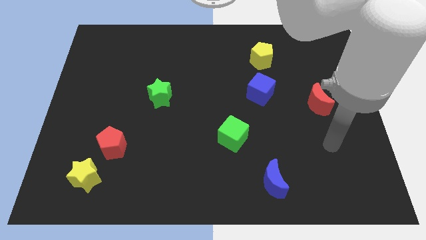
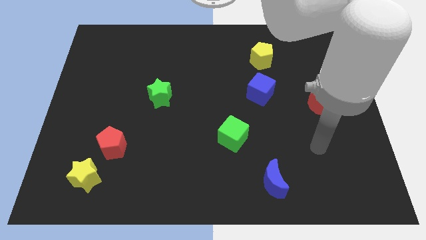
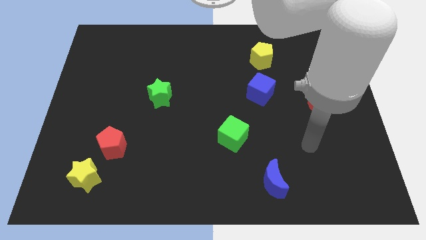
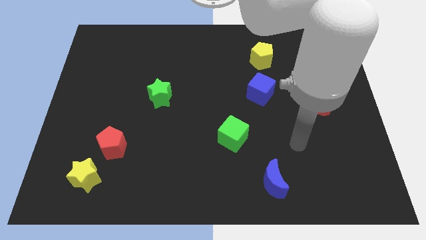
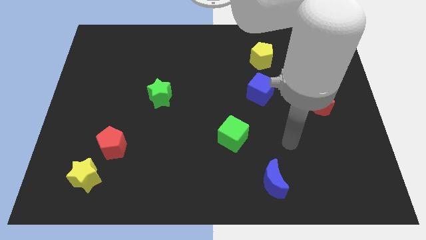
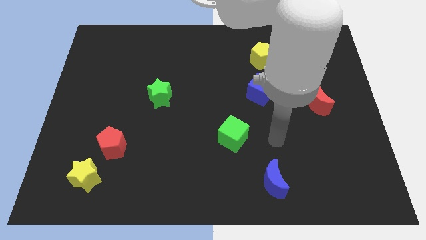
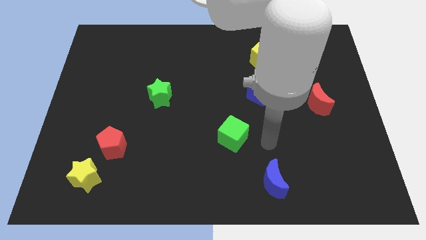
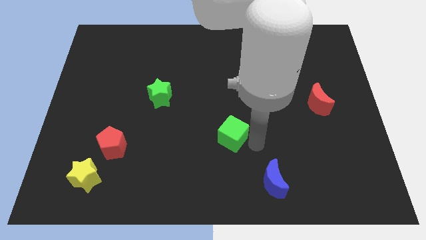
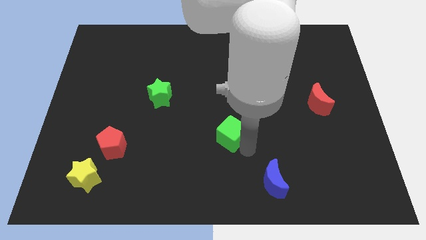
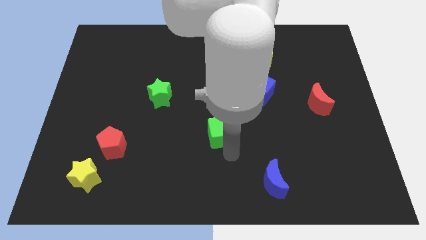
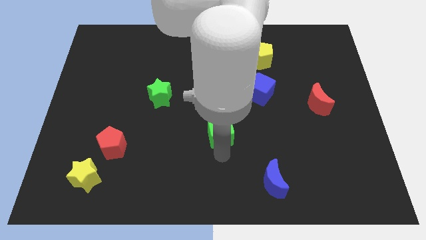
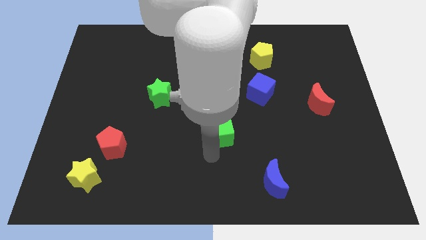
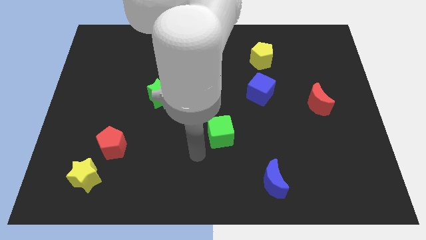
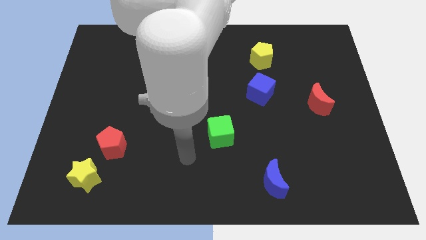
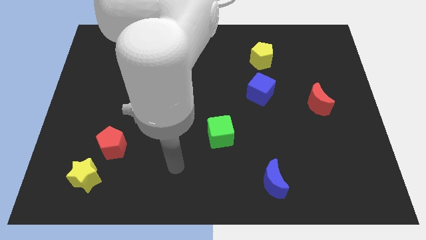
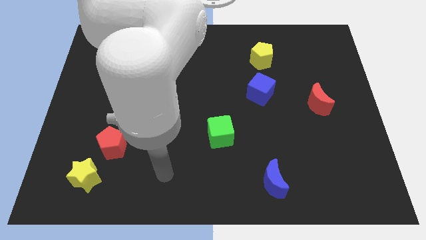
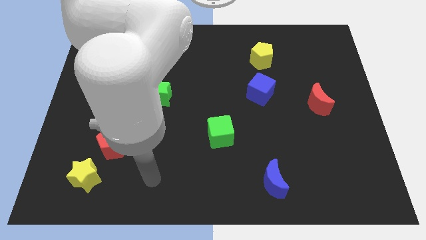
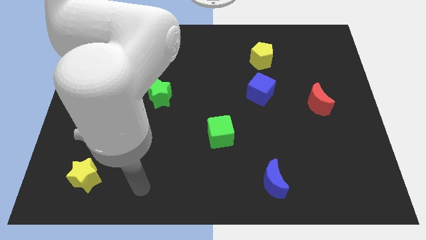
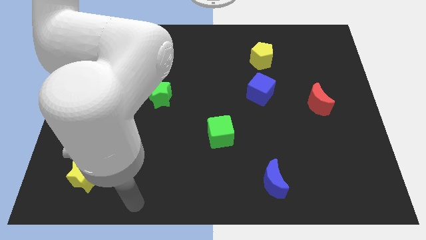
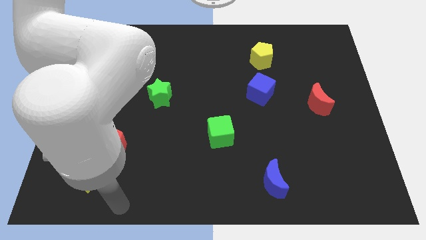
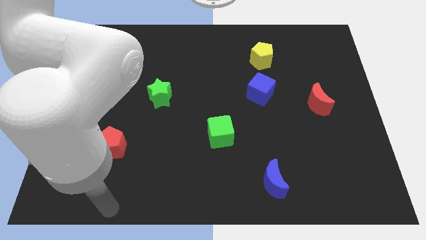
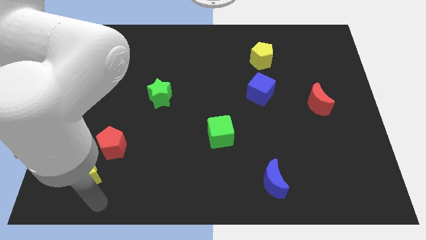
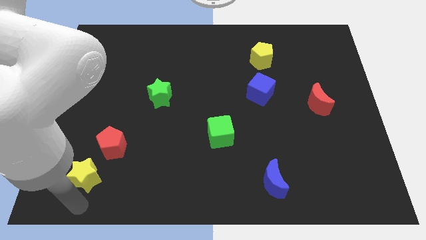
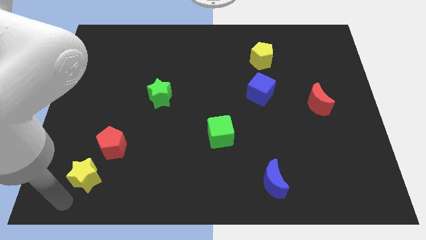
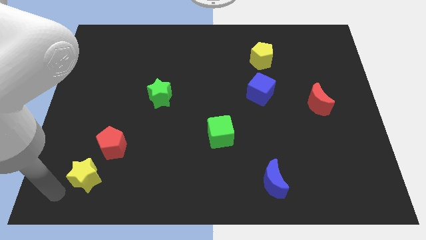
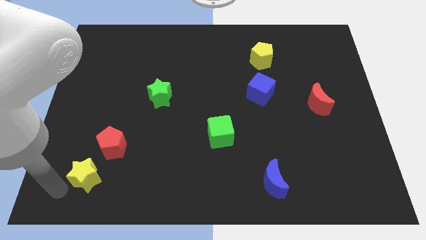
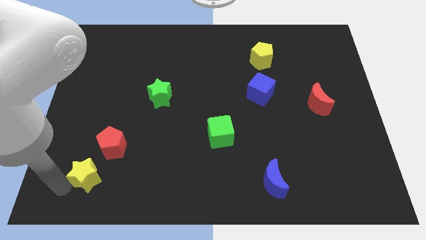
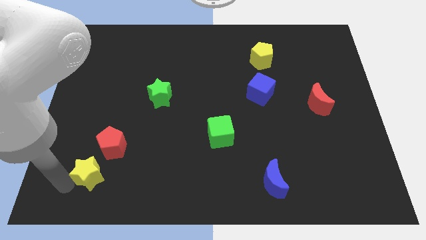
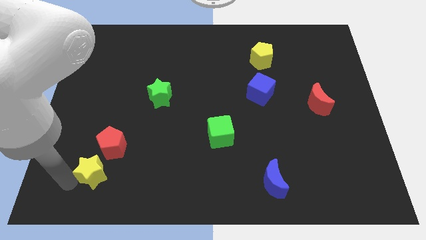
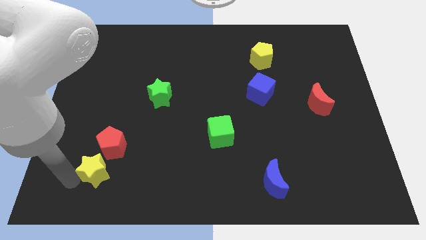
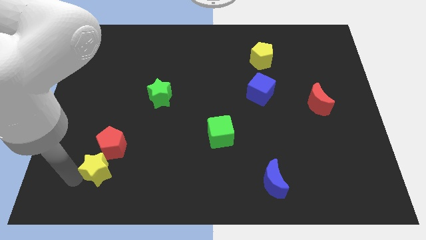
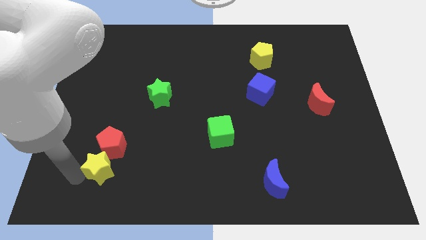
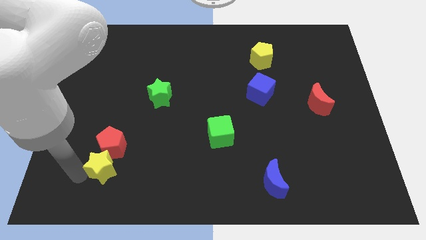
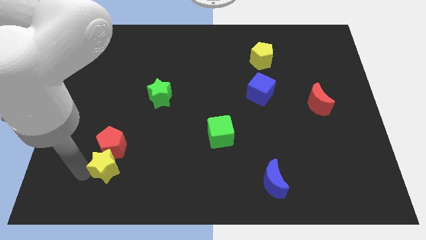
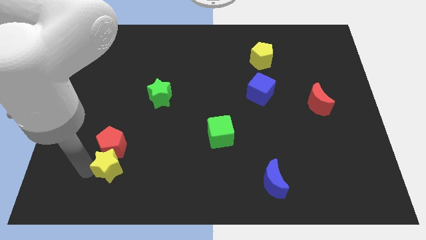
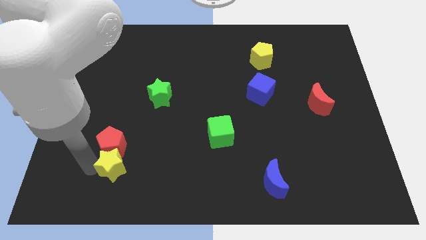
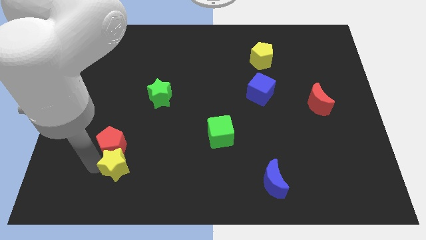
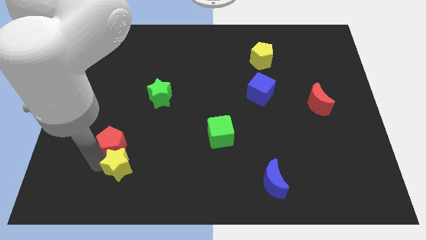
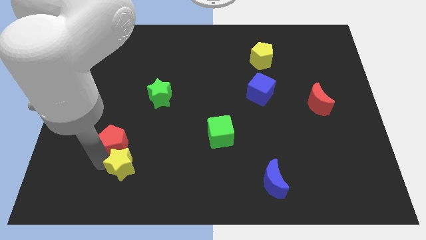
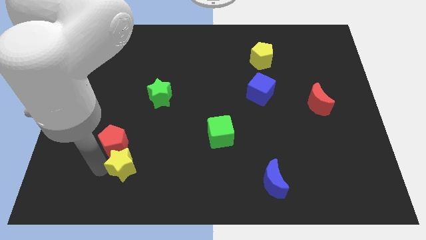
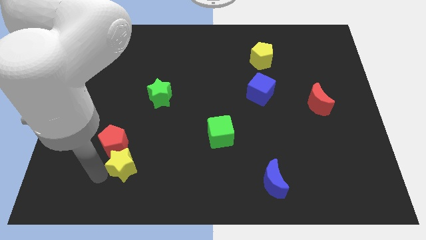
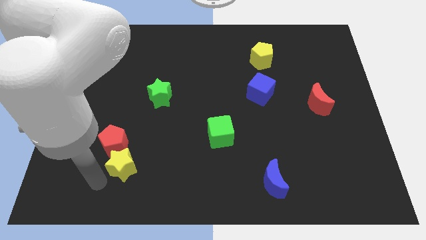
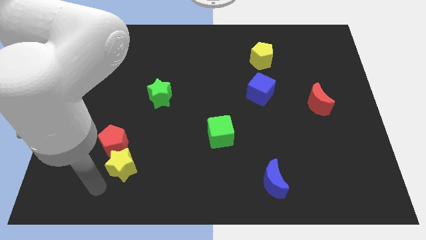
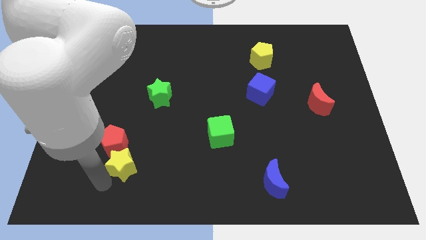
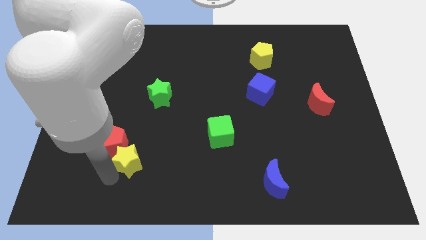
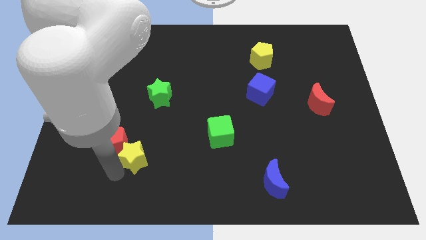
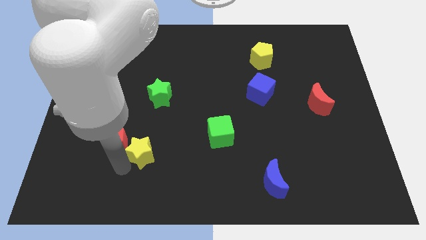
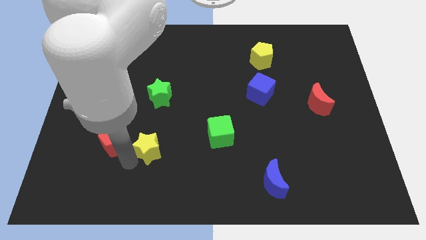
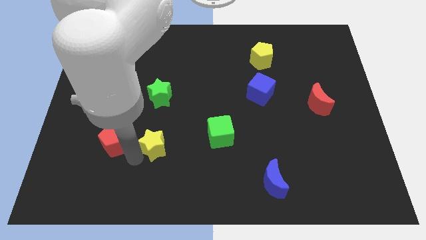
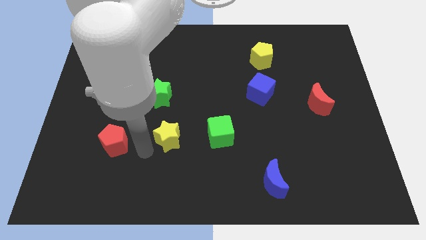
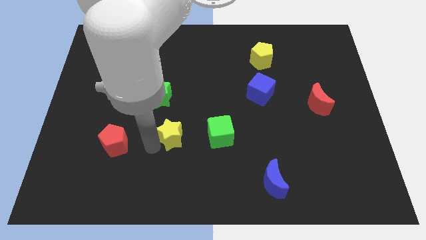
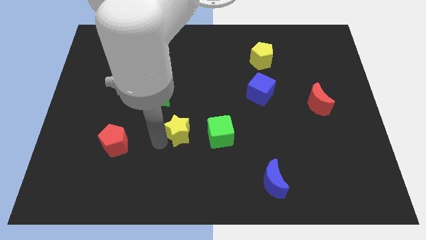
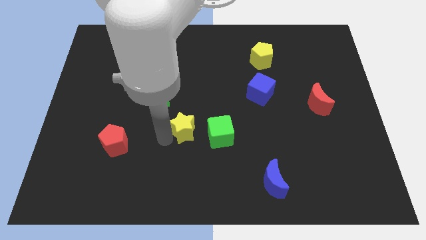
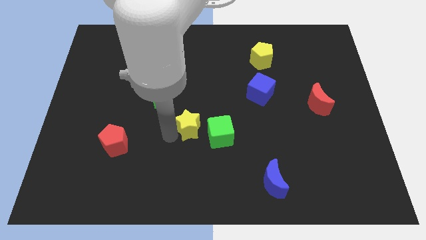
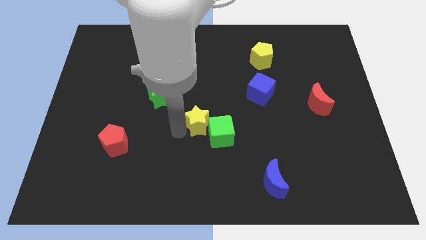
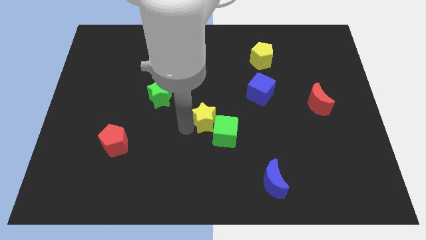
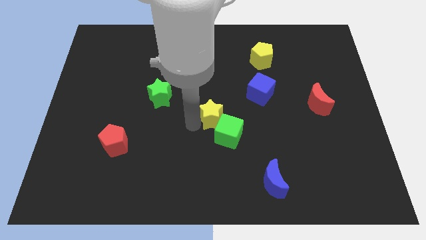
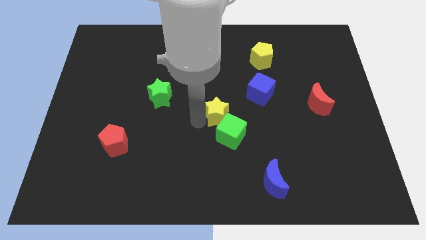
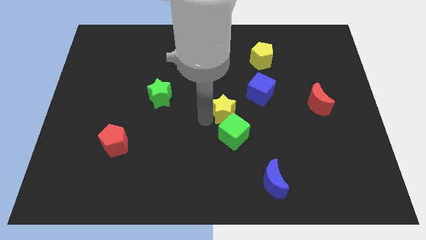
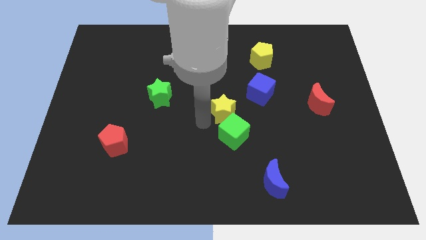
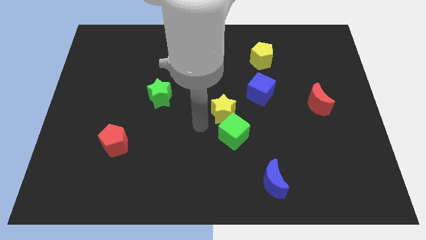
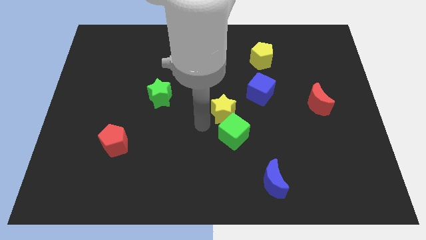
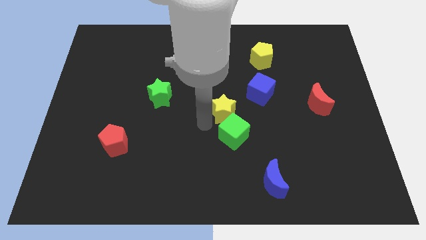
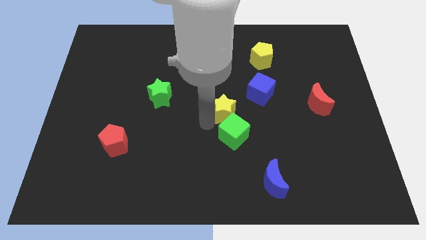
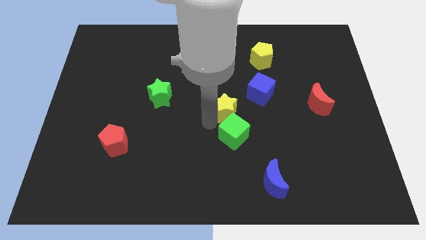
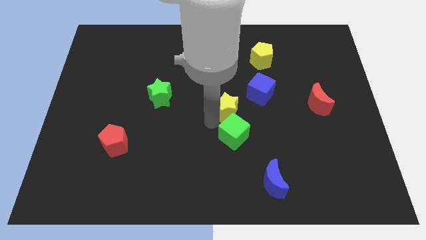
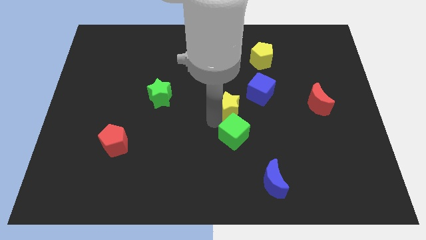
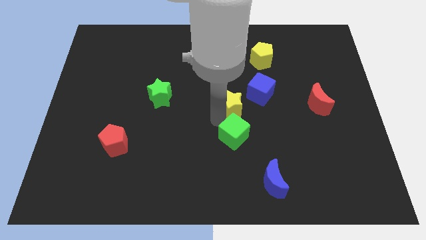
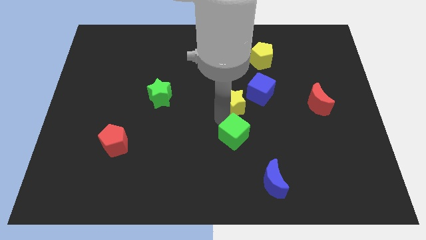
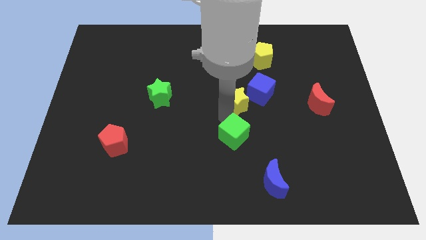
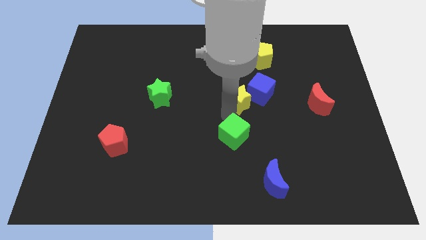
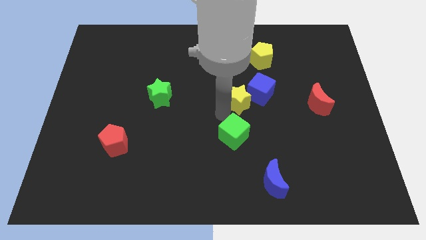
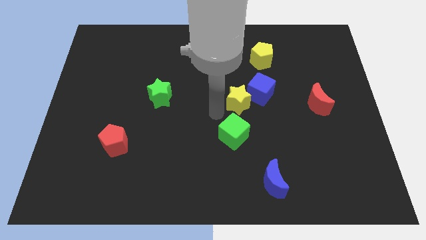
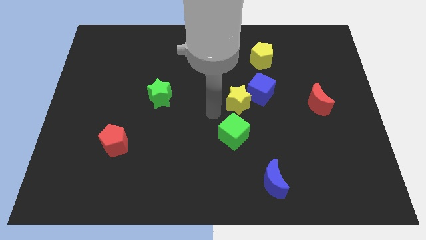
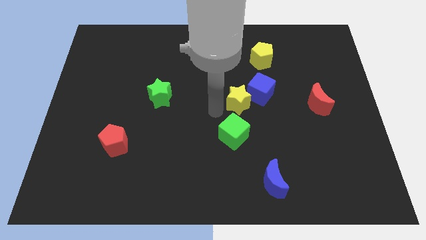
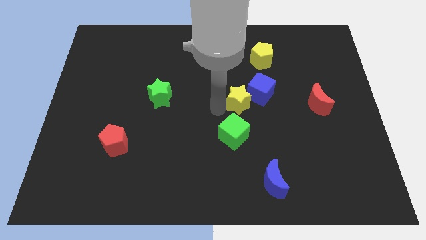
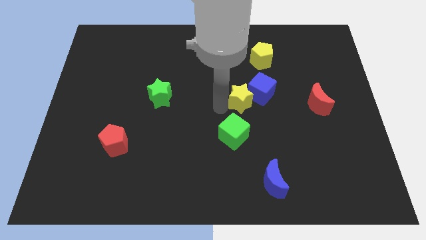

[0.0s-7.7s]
slide the yellow star towards the blue cube
